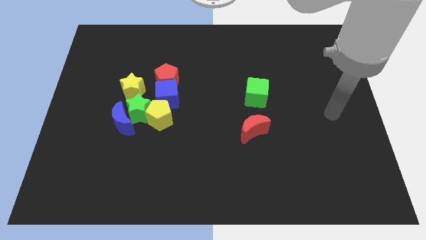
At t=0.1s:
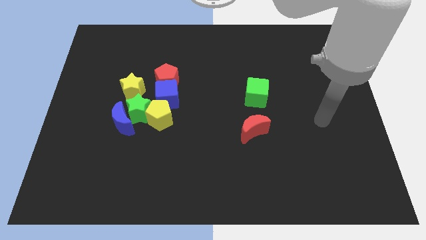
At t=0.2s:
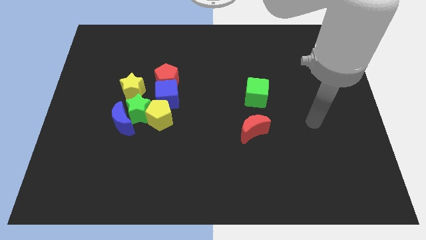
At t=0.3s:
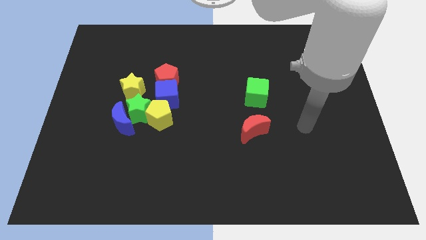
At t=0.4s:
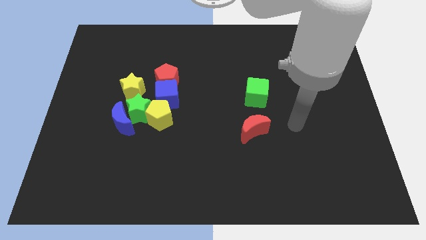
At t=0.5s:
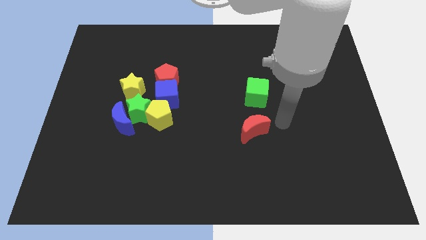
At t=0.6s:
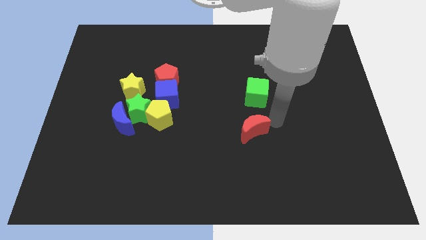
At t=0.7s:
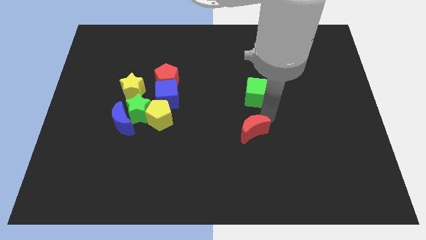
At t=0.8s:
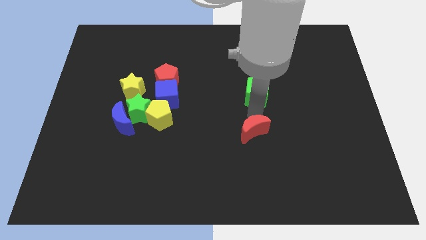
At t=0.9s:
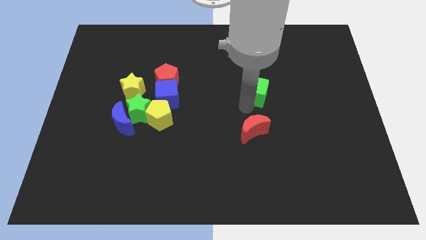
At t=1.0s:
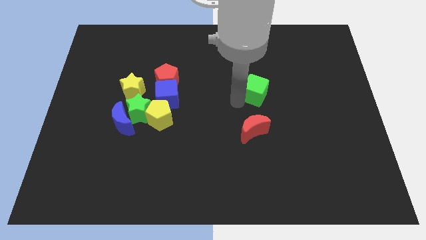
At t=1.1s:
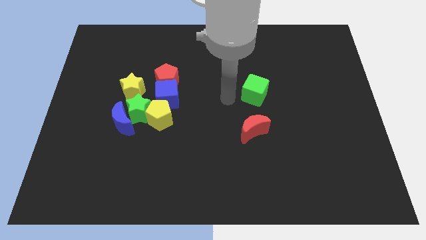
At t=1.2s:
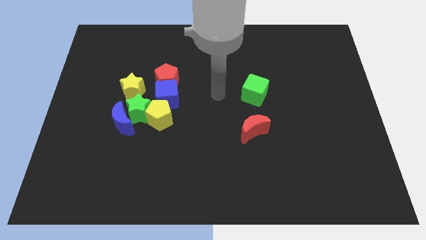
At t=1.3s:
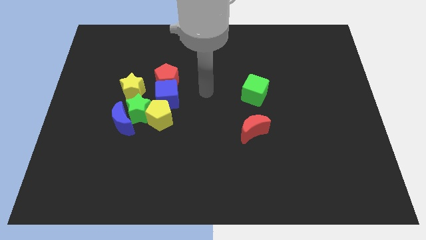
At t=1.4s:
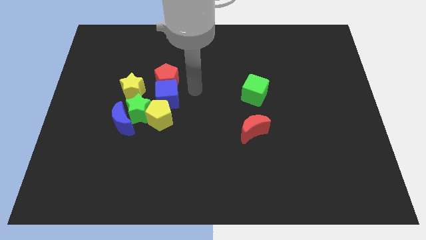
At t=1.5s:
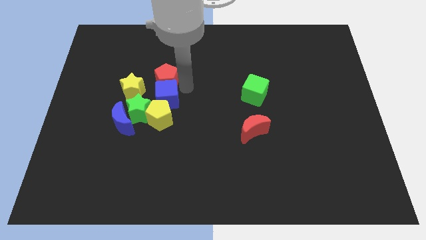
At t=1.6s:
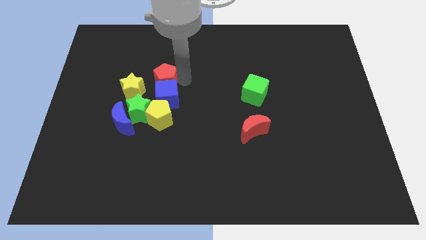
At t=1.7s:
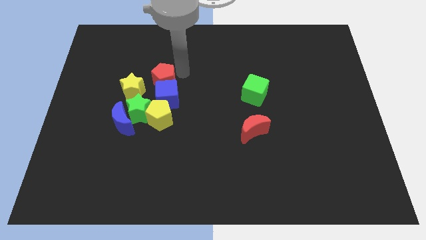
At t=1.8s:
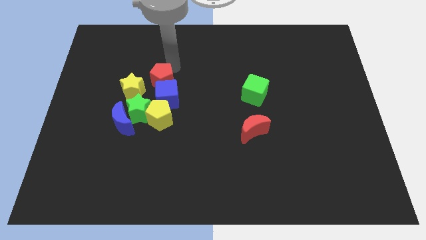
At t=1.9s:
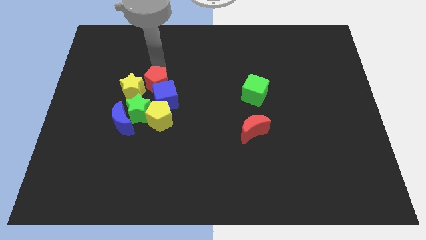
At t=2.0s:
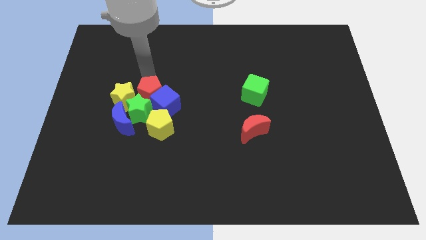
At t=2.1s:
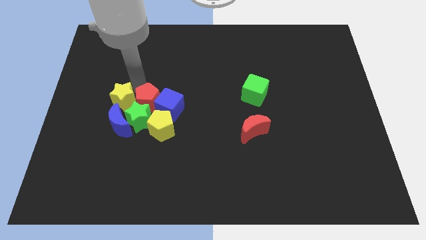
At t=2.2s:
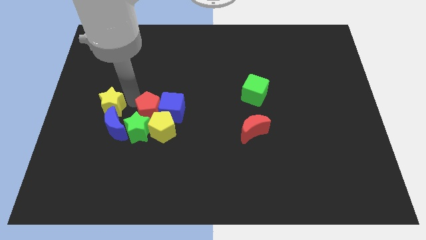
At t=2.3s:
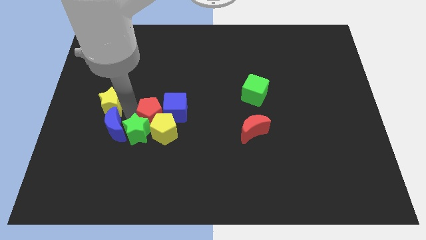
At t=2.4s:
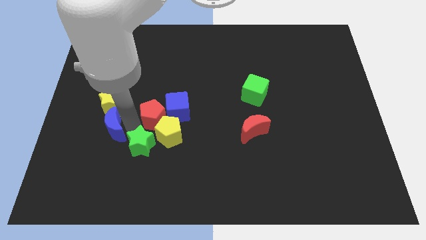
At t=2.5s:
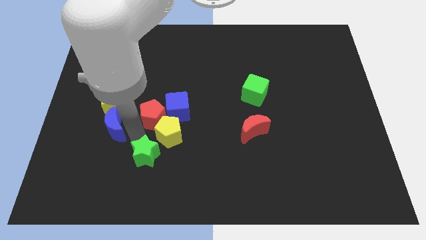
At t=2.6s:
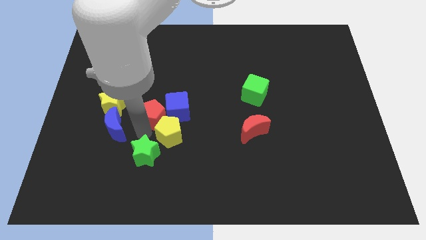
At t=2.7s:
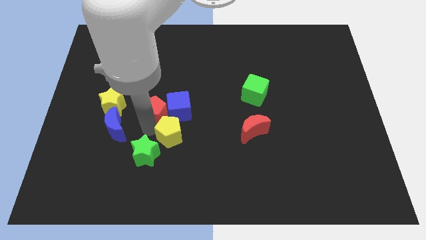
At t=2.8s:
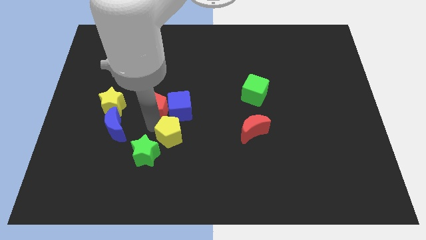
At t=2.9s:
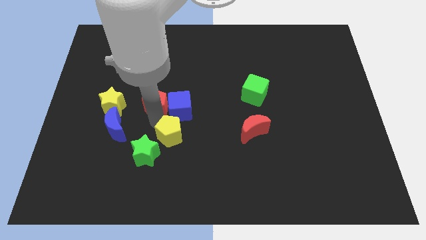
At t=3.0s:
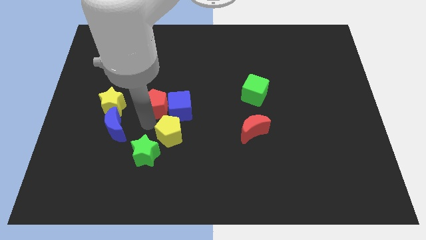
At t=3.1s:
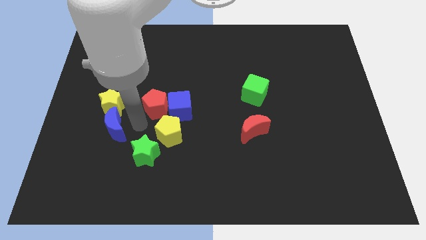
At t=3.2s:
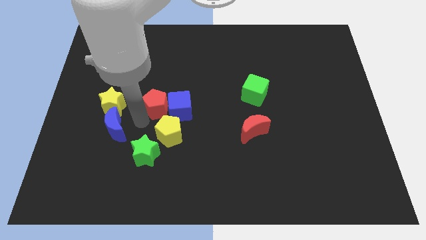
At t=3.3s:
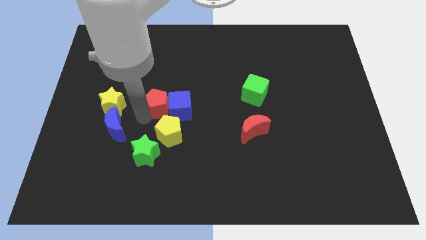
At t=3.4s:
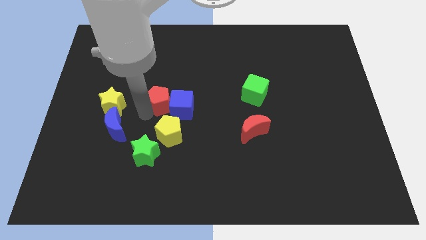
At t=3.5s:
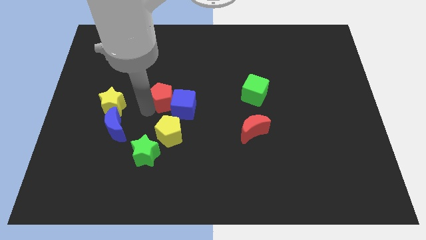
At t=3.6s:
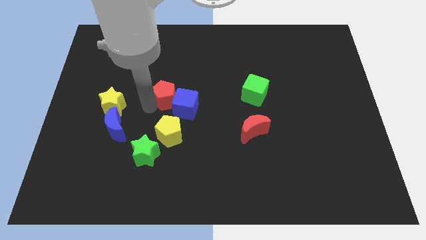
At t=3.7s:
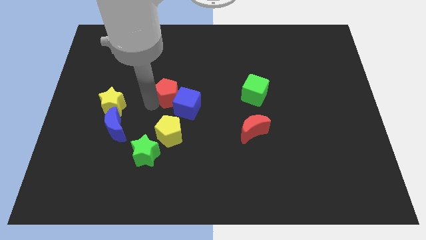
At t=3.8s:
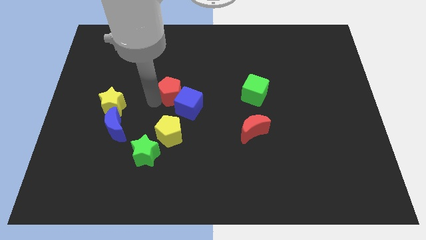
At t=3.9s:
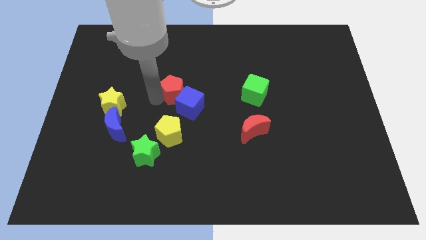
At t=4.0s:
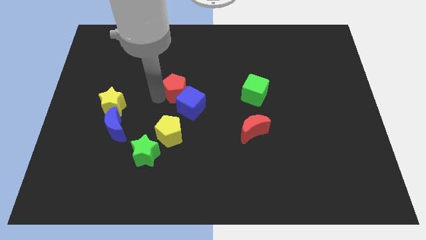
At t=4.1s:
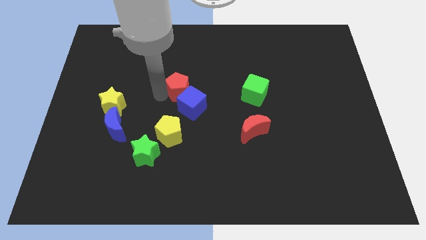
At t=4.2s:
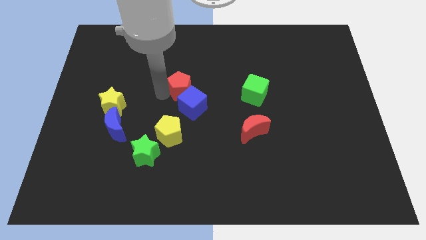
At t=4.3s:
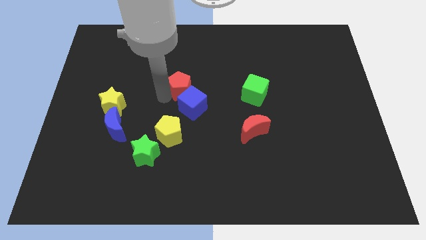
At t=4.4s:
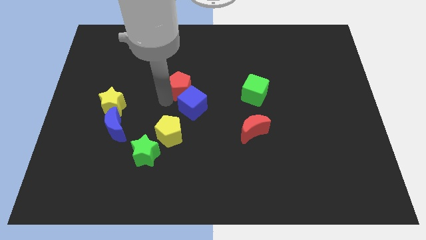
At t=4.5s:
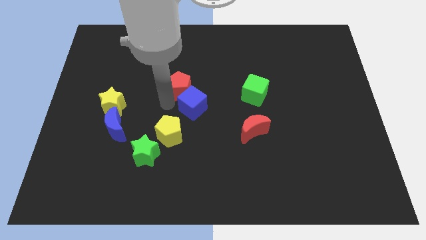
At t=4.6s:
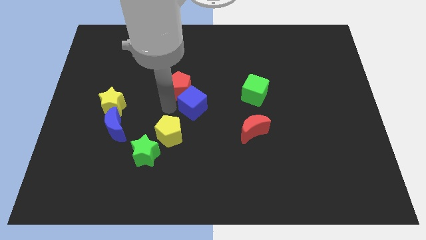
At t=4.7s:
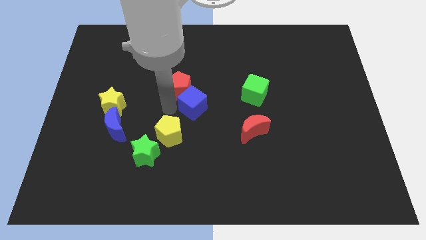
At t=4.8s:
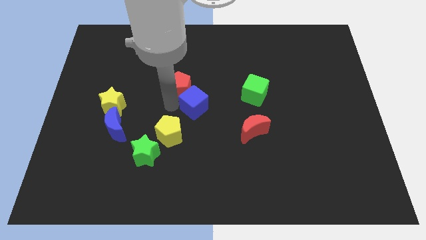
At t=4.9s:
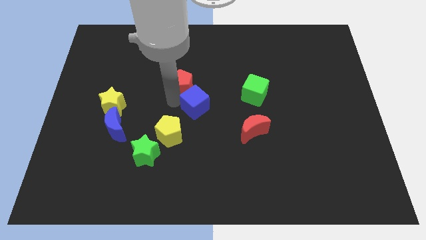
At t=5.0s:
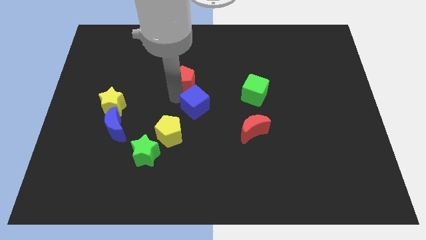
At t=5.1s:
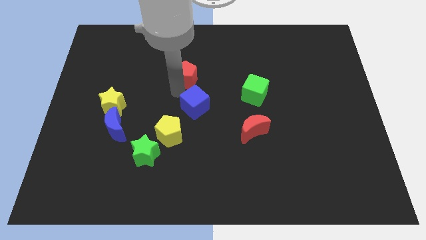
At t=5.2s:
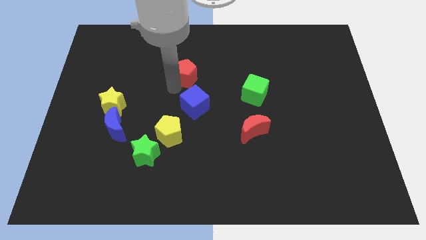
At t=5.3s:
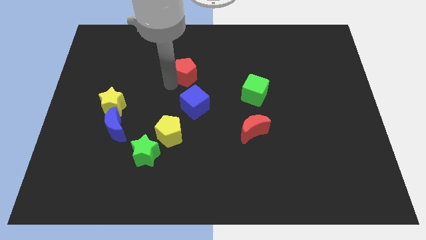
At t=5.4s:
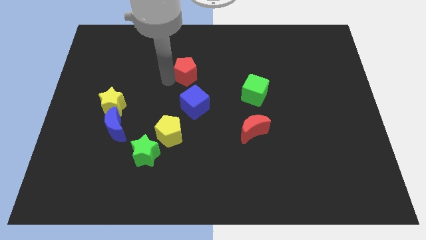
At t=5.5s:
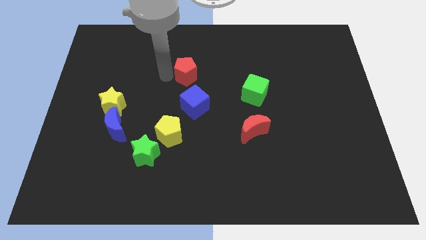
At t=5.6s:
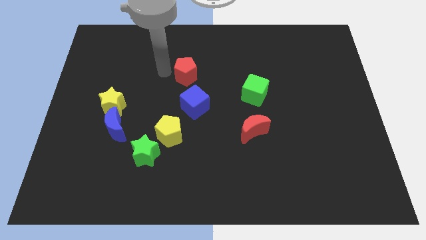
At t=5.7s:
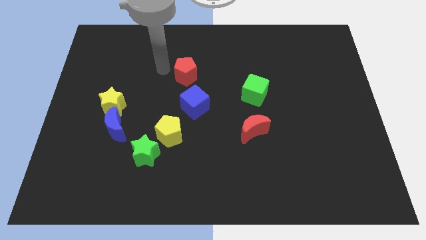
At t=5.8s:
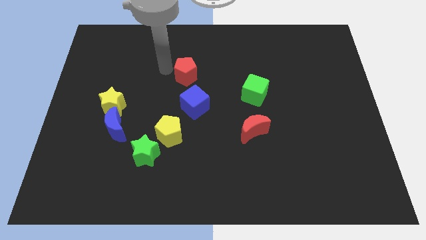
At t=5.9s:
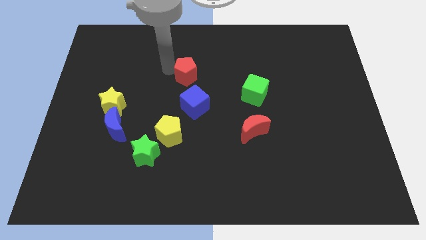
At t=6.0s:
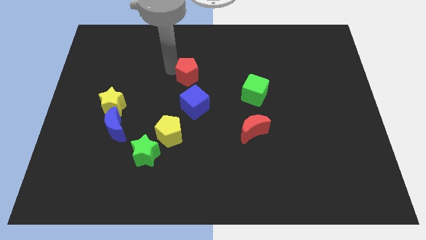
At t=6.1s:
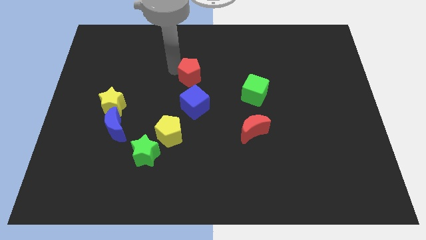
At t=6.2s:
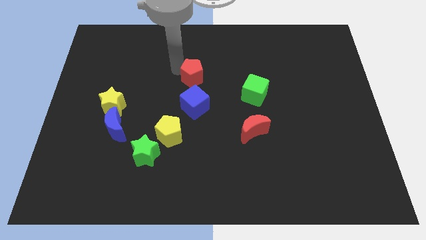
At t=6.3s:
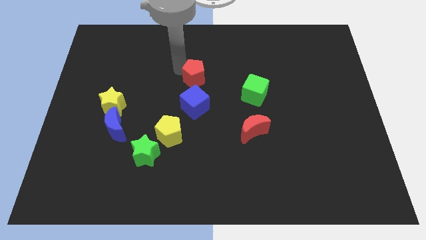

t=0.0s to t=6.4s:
slightly move the red pentagon to the right

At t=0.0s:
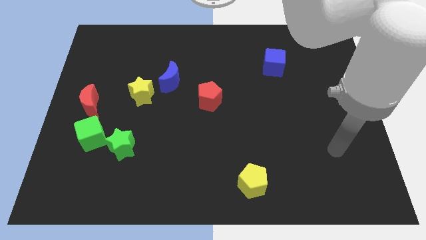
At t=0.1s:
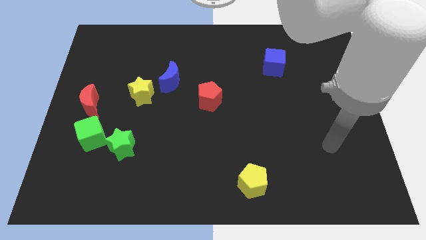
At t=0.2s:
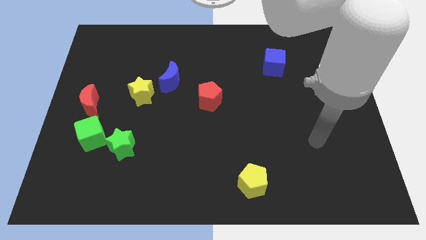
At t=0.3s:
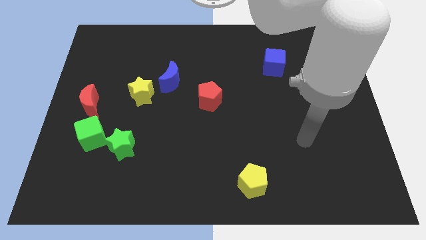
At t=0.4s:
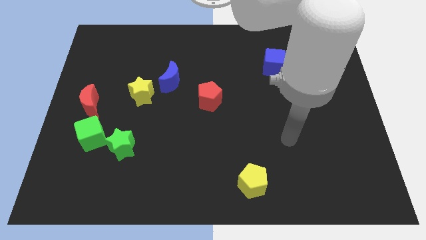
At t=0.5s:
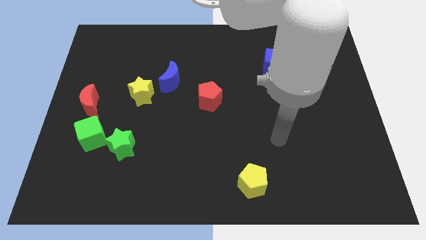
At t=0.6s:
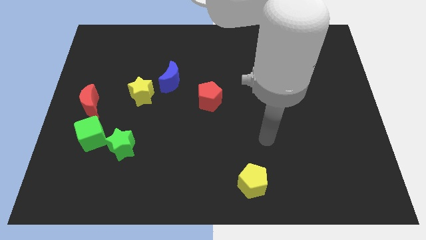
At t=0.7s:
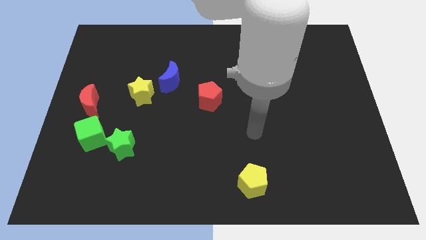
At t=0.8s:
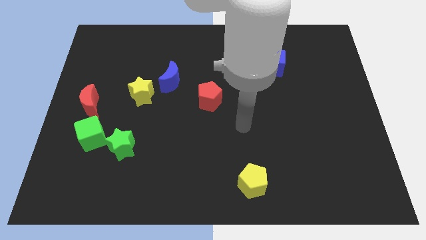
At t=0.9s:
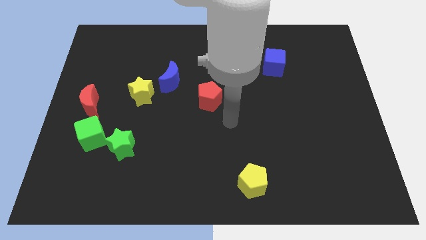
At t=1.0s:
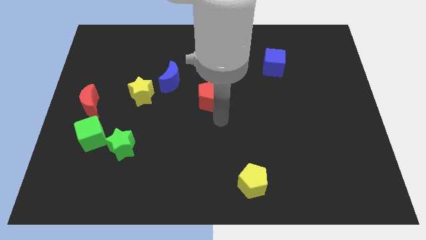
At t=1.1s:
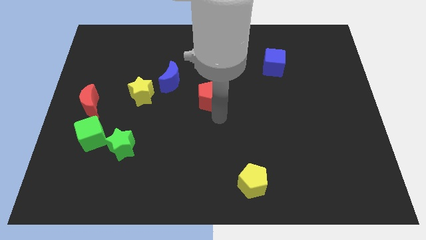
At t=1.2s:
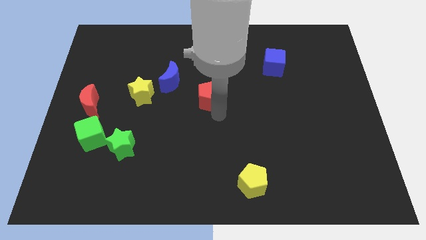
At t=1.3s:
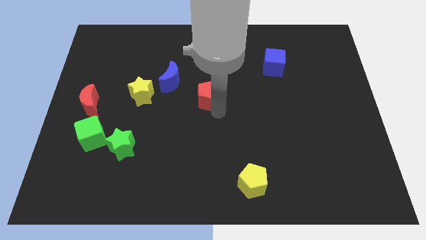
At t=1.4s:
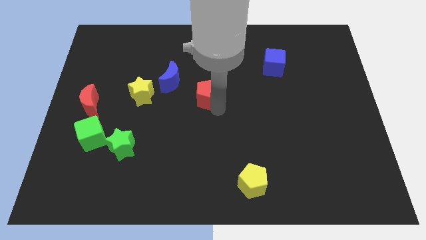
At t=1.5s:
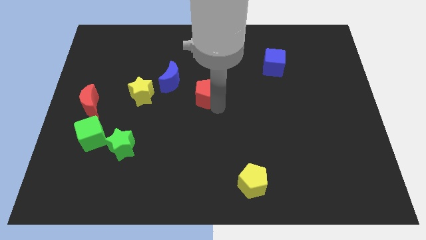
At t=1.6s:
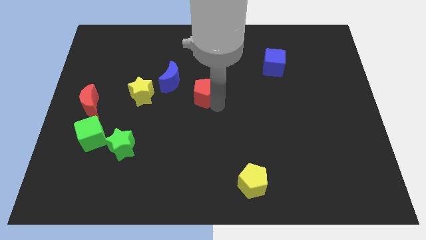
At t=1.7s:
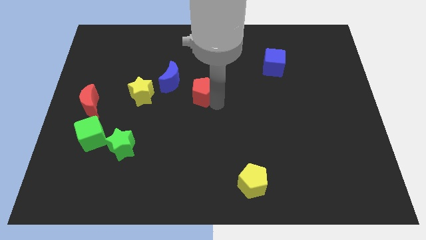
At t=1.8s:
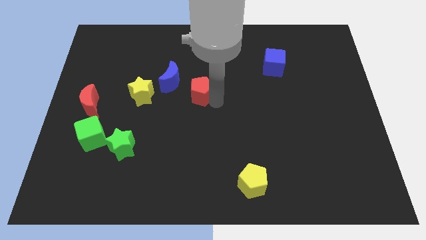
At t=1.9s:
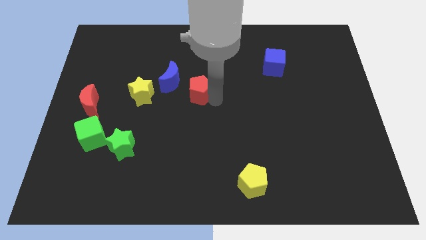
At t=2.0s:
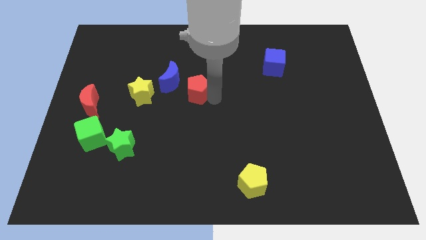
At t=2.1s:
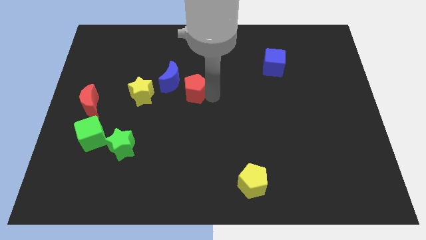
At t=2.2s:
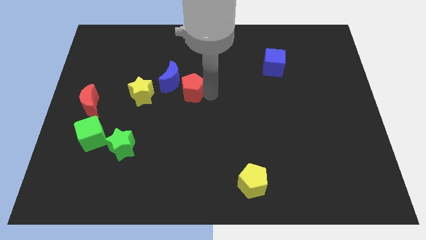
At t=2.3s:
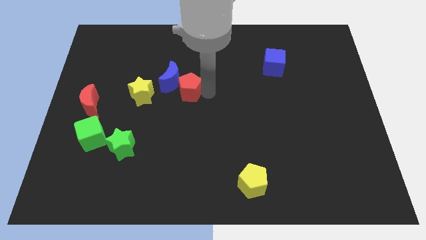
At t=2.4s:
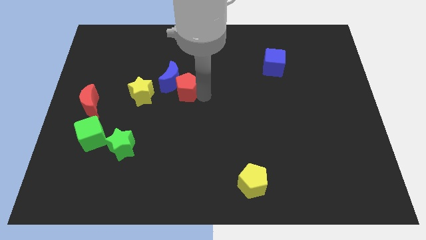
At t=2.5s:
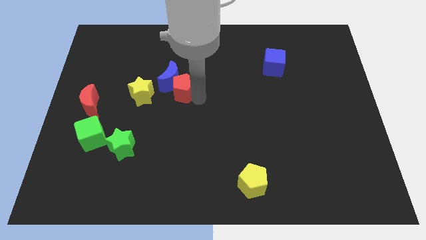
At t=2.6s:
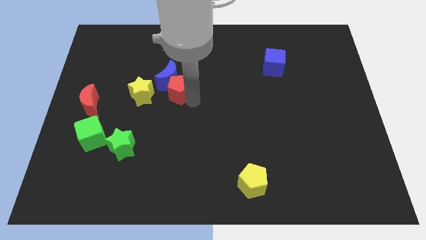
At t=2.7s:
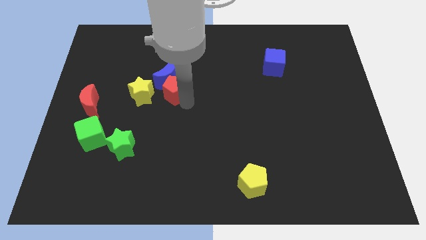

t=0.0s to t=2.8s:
push the red pentagon diagonally up and to the left a little bit
